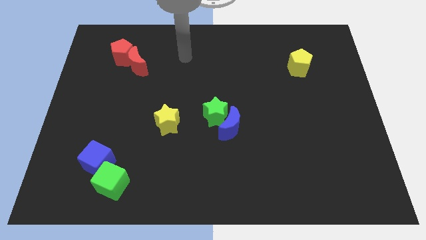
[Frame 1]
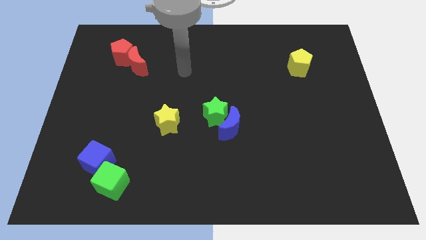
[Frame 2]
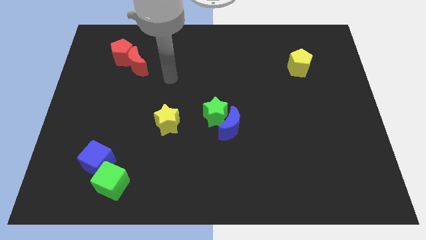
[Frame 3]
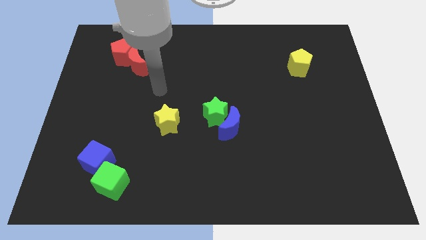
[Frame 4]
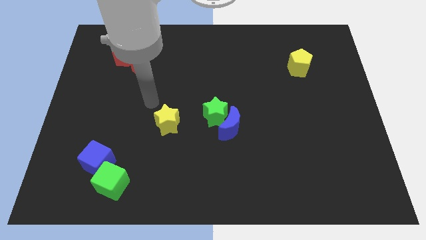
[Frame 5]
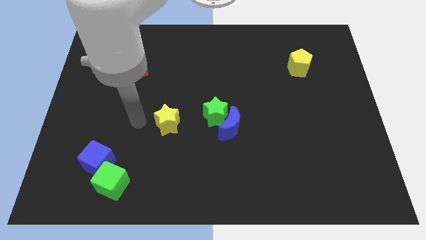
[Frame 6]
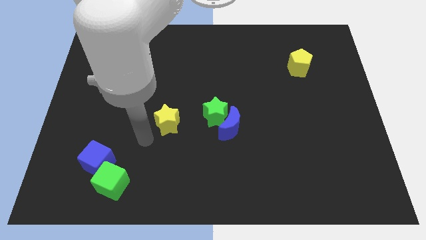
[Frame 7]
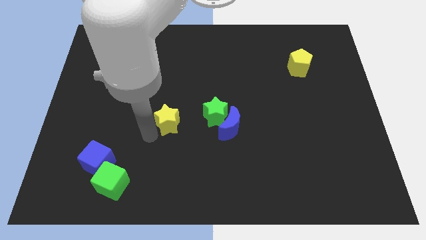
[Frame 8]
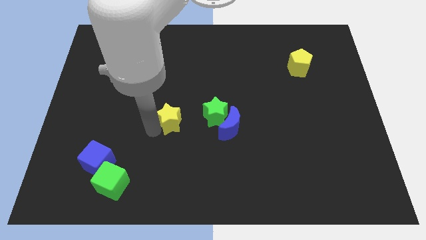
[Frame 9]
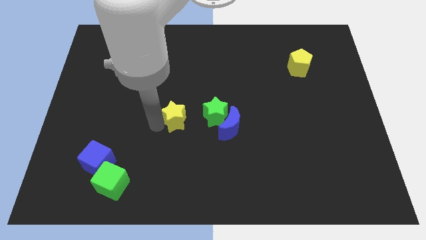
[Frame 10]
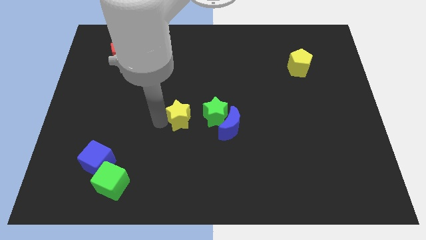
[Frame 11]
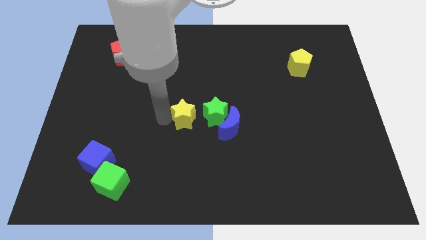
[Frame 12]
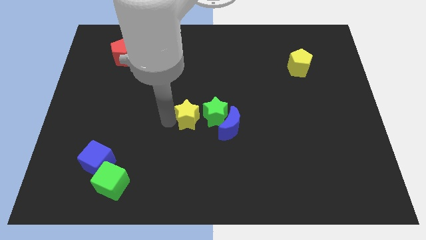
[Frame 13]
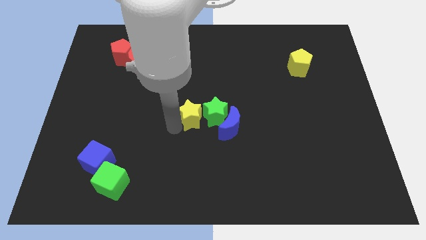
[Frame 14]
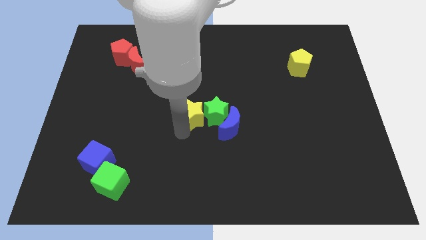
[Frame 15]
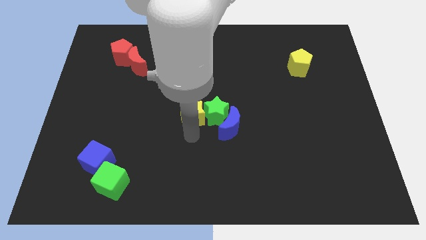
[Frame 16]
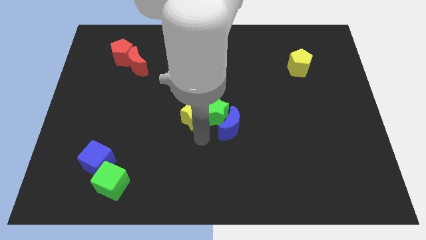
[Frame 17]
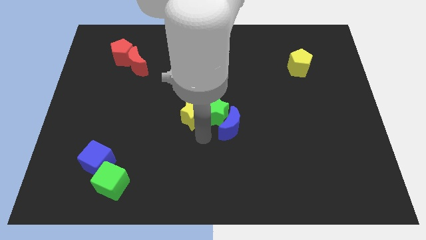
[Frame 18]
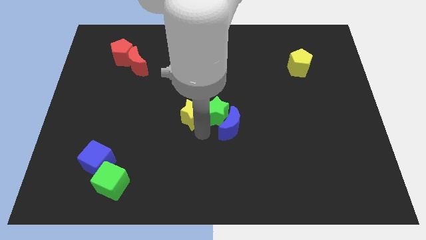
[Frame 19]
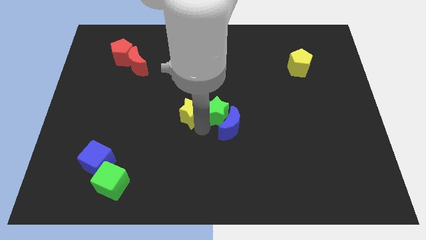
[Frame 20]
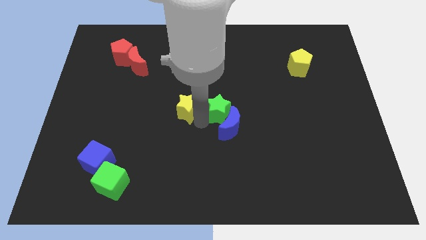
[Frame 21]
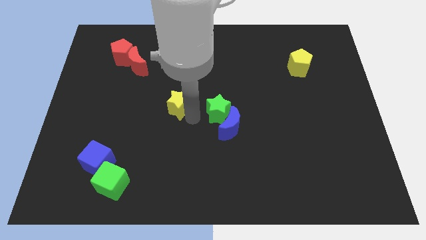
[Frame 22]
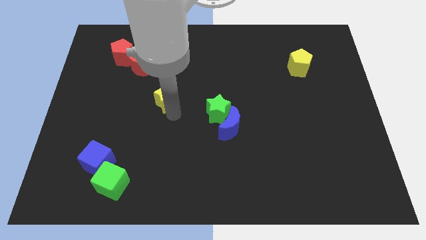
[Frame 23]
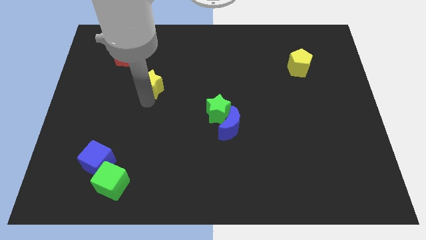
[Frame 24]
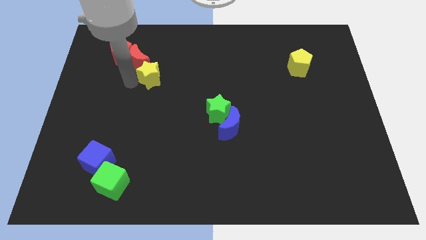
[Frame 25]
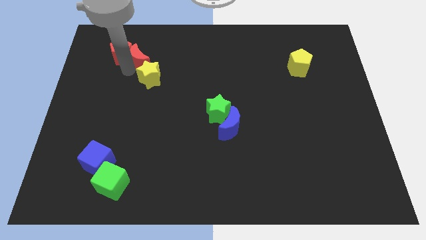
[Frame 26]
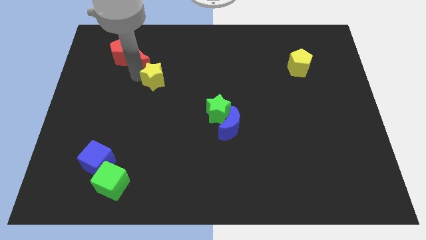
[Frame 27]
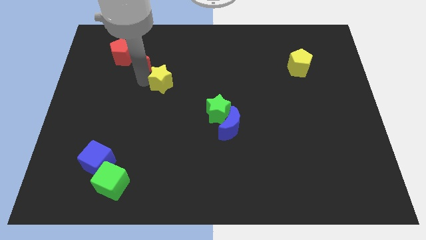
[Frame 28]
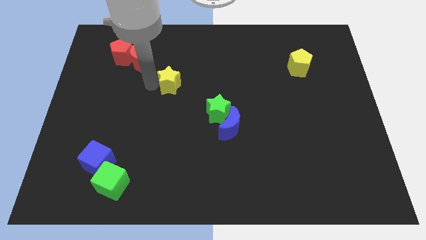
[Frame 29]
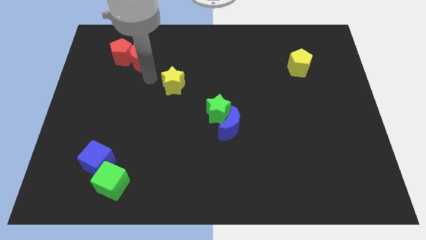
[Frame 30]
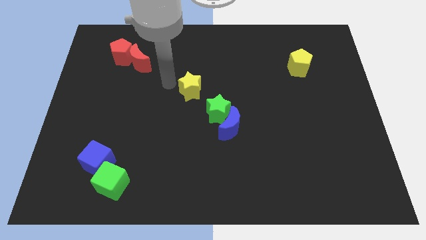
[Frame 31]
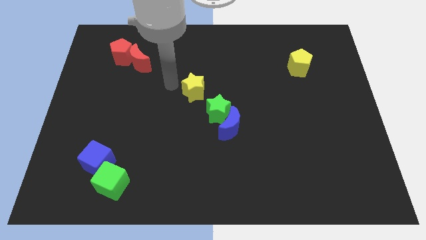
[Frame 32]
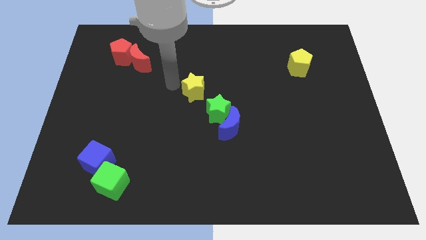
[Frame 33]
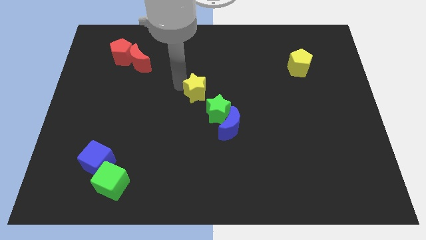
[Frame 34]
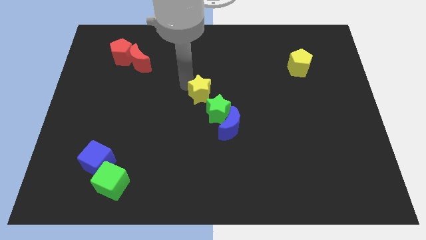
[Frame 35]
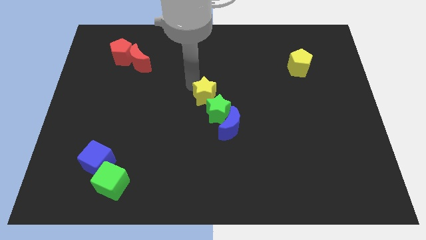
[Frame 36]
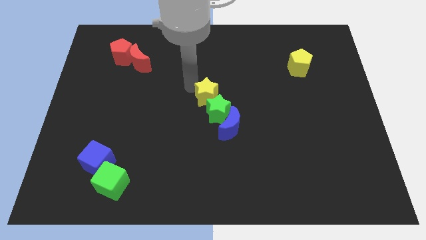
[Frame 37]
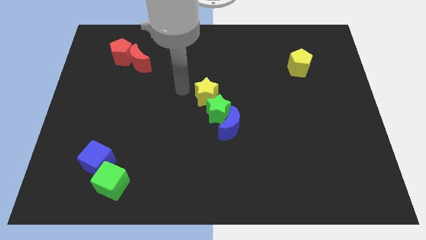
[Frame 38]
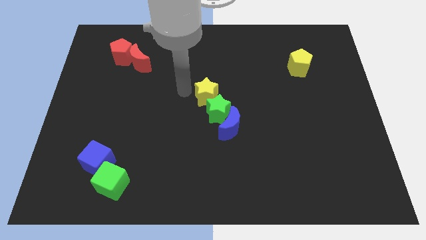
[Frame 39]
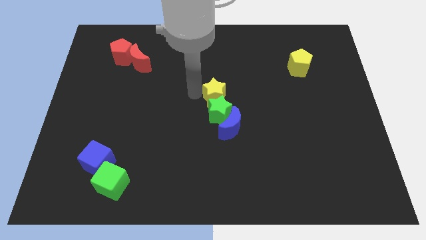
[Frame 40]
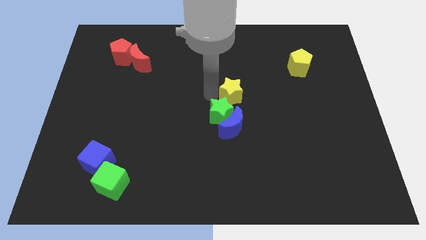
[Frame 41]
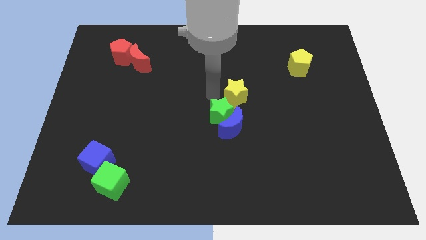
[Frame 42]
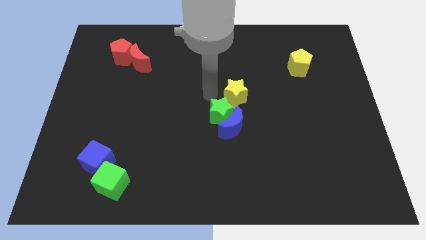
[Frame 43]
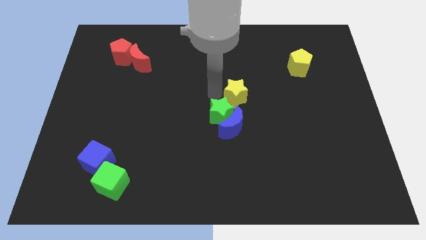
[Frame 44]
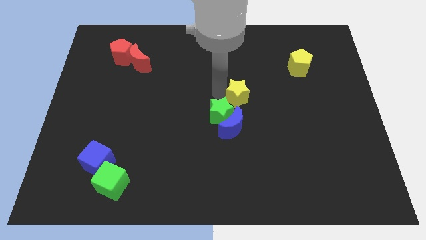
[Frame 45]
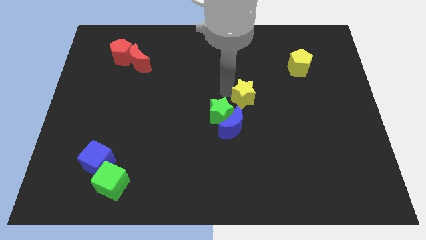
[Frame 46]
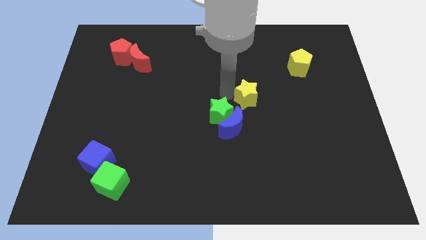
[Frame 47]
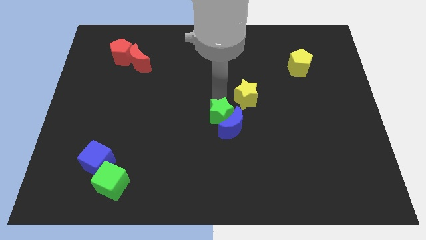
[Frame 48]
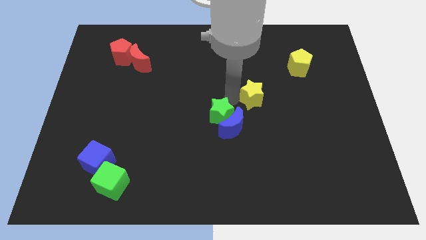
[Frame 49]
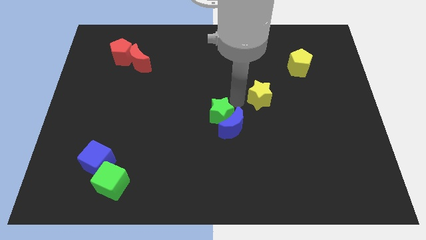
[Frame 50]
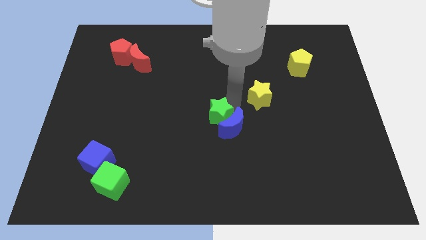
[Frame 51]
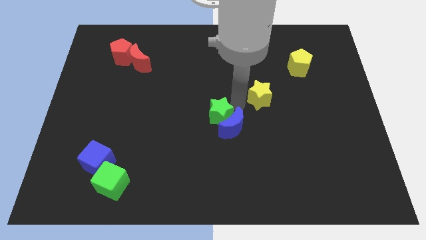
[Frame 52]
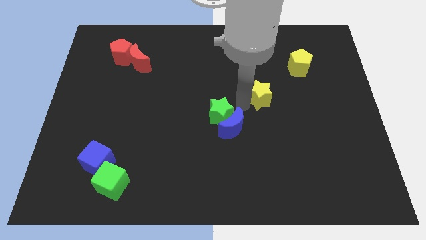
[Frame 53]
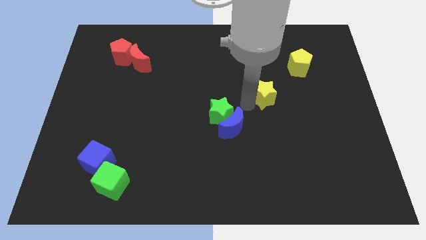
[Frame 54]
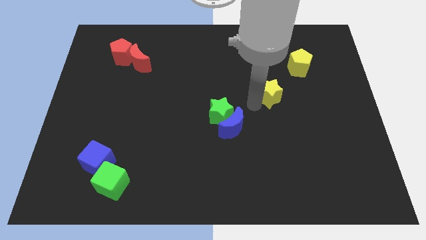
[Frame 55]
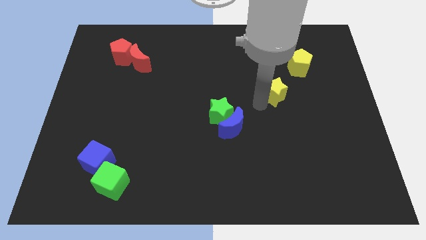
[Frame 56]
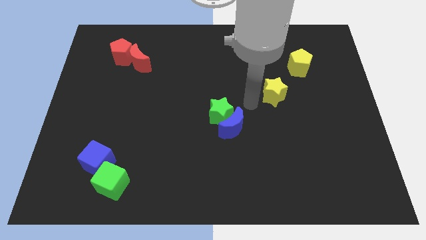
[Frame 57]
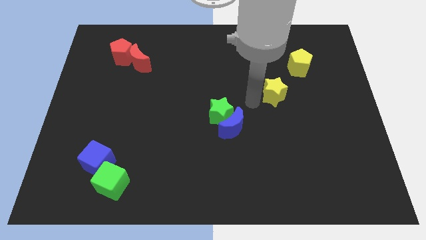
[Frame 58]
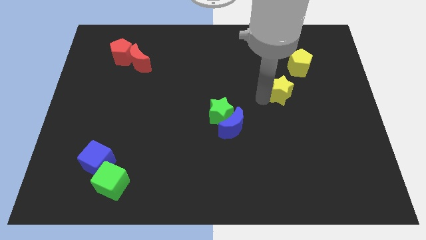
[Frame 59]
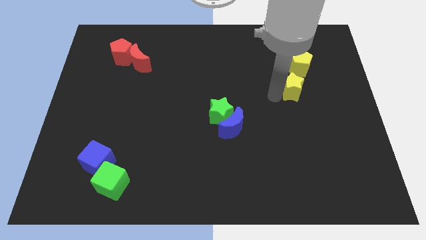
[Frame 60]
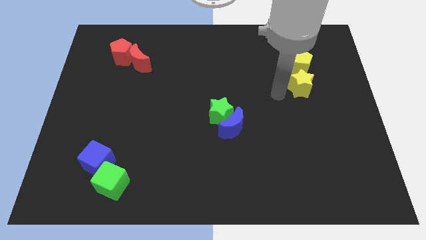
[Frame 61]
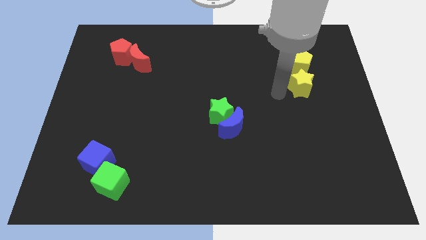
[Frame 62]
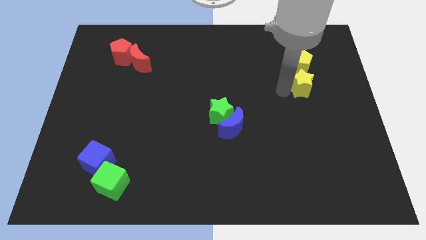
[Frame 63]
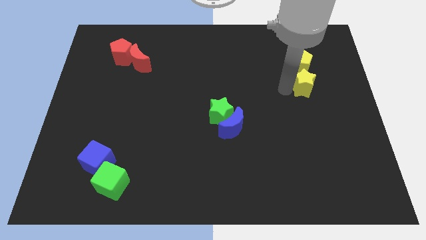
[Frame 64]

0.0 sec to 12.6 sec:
move the yellow star to the bottom right side of the yellow pentagon
